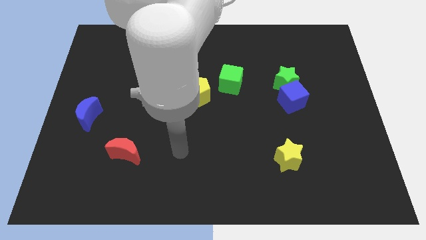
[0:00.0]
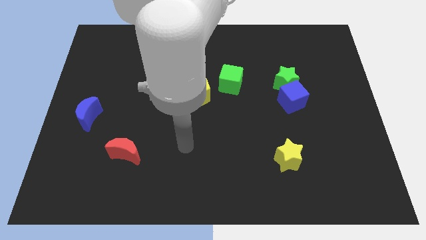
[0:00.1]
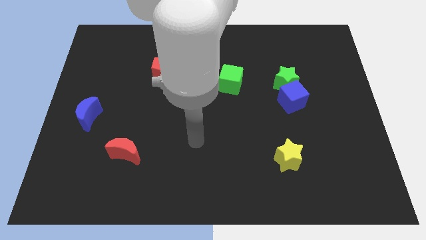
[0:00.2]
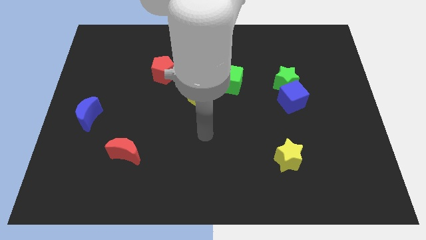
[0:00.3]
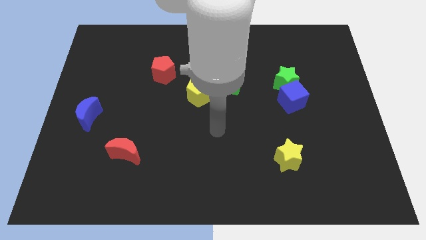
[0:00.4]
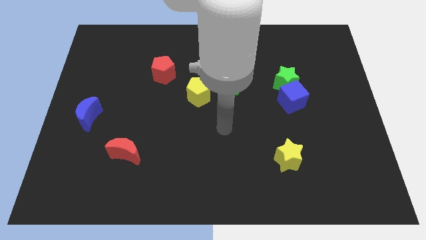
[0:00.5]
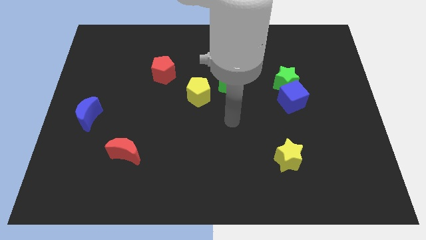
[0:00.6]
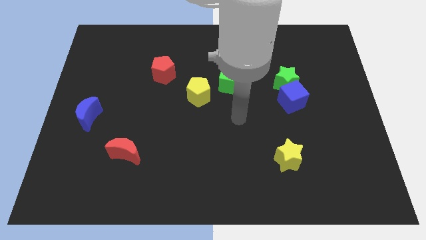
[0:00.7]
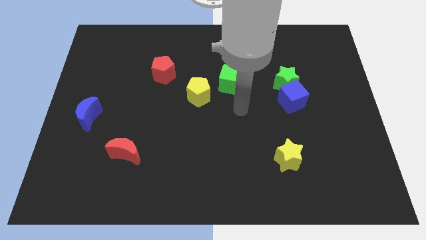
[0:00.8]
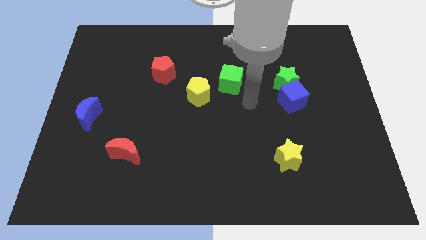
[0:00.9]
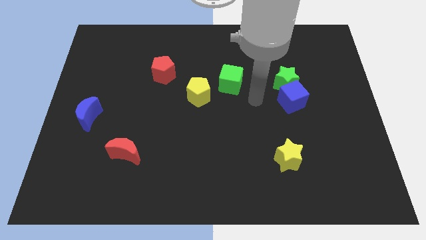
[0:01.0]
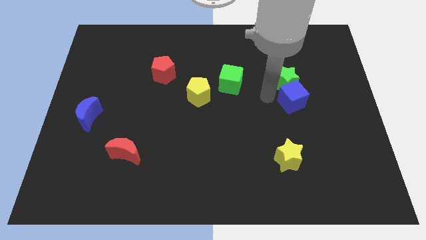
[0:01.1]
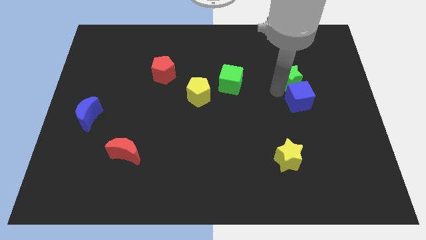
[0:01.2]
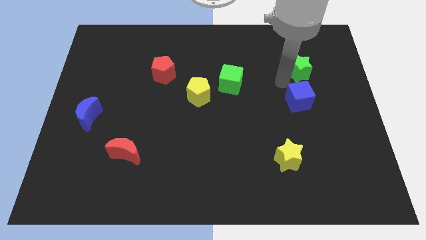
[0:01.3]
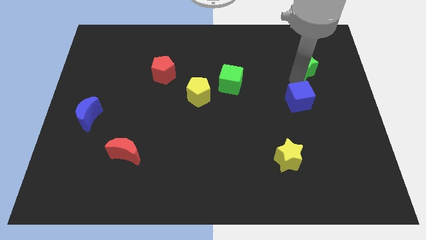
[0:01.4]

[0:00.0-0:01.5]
pull the blue cube apart from the green star

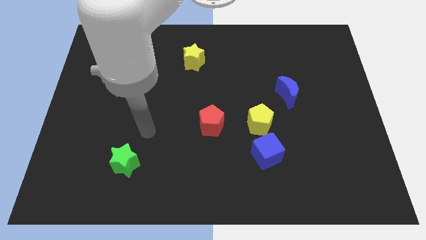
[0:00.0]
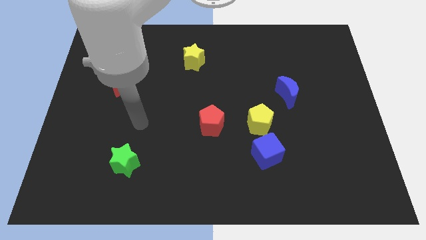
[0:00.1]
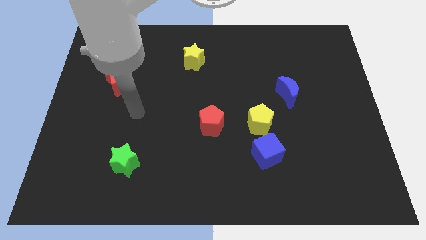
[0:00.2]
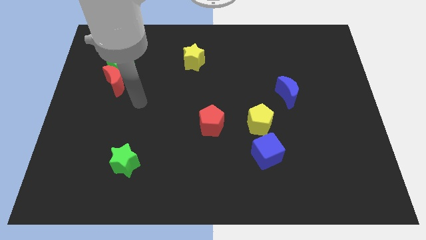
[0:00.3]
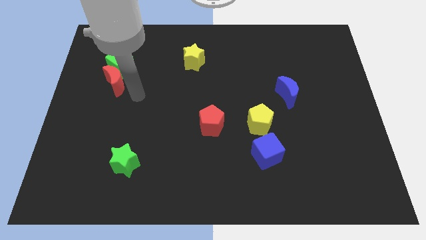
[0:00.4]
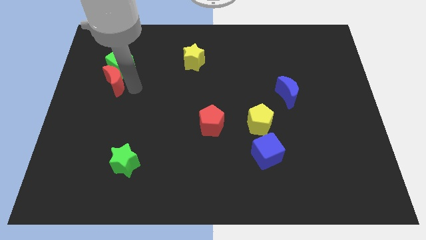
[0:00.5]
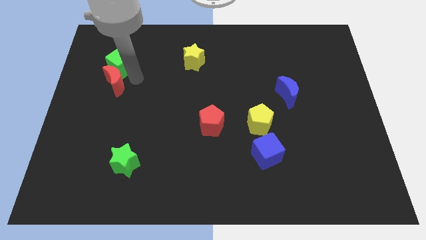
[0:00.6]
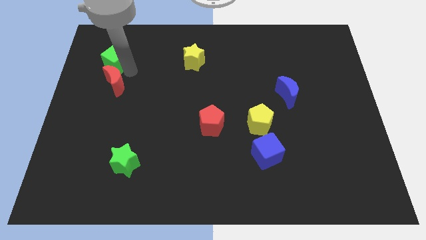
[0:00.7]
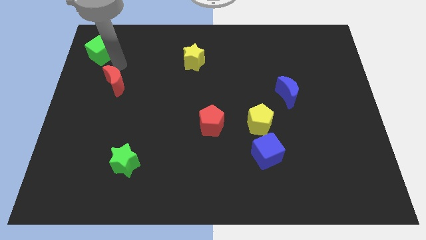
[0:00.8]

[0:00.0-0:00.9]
move the red moon away from the green cube

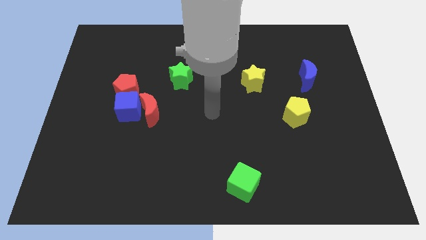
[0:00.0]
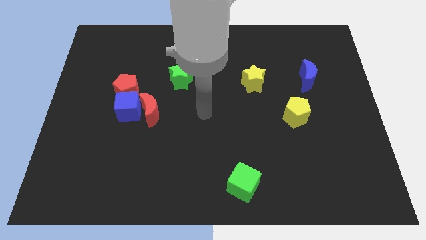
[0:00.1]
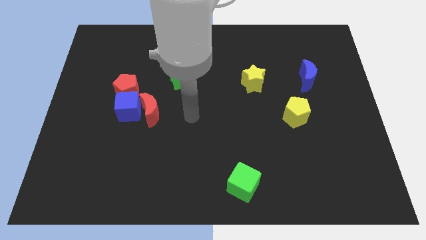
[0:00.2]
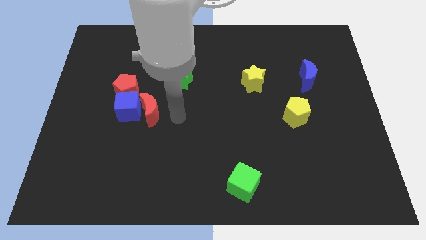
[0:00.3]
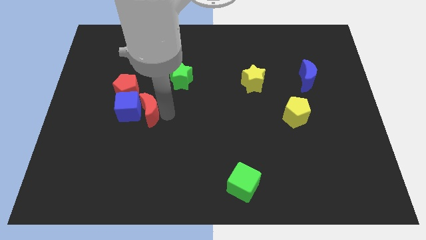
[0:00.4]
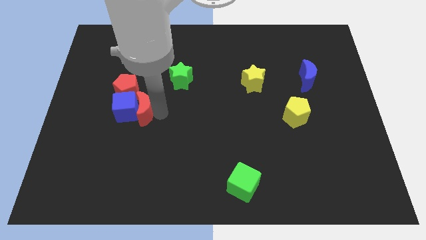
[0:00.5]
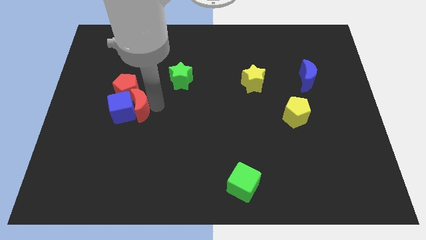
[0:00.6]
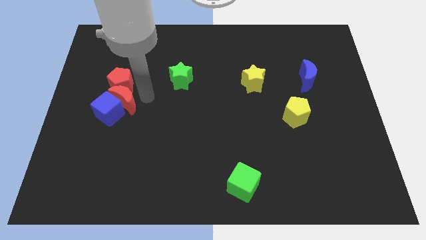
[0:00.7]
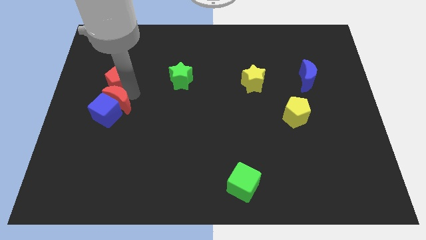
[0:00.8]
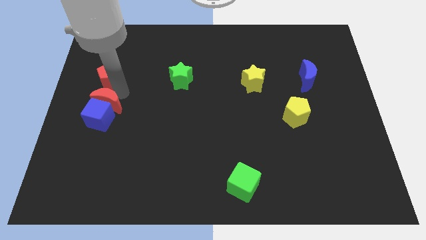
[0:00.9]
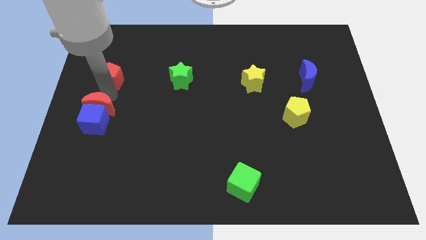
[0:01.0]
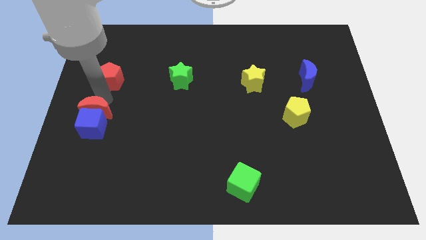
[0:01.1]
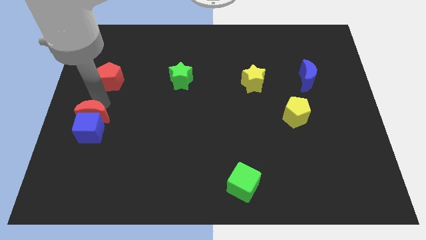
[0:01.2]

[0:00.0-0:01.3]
separate the blue cube from the red moon and red pentagon

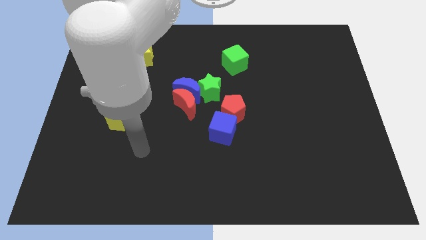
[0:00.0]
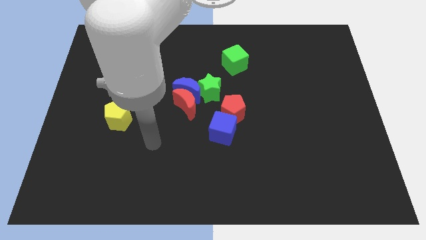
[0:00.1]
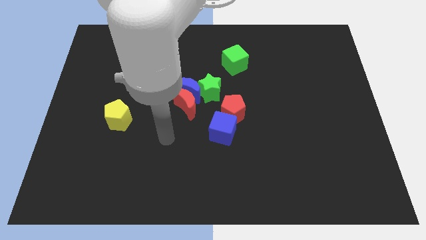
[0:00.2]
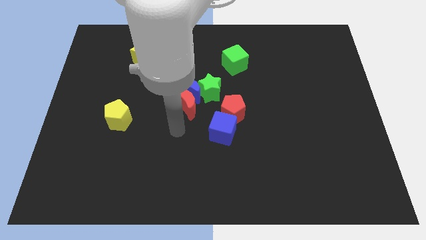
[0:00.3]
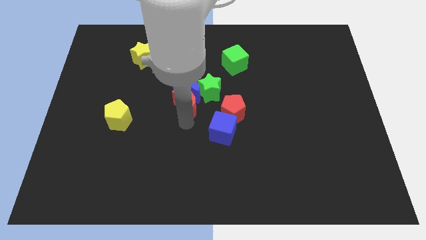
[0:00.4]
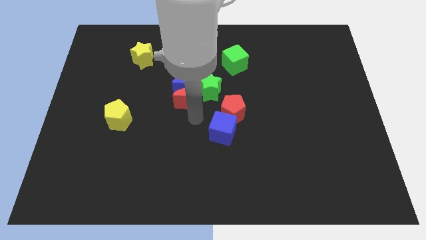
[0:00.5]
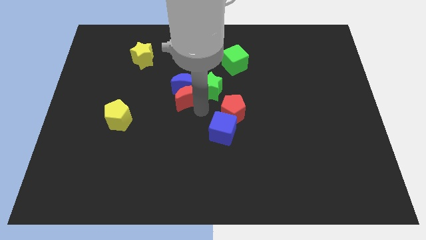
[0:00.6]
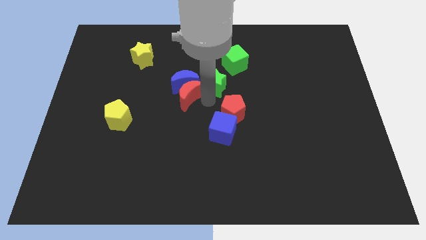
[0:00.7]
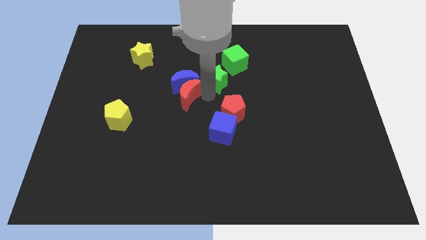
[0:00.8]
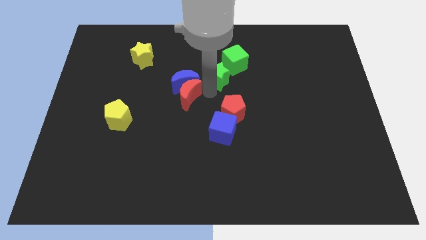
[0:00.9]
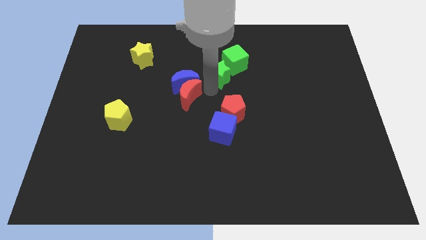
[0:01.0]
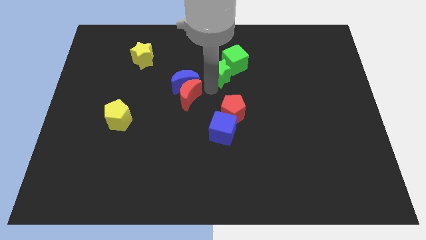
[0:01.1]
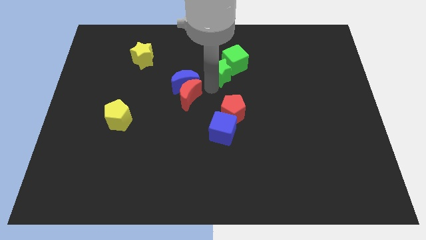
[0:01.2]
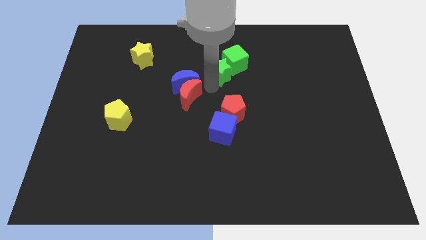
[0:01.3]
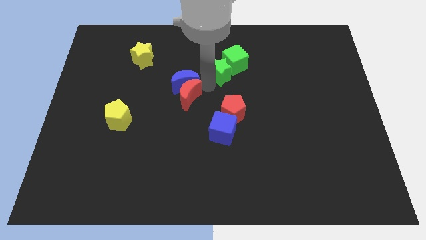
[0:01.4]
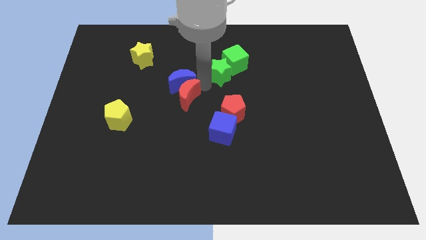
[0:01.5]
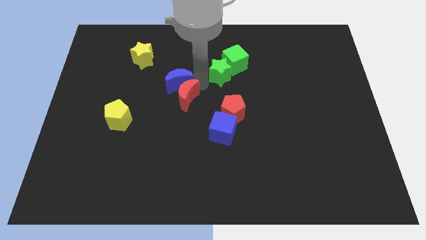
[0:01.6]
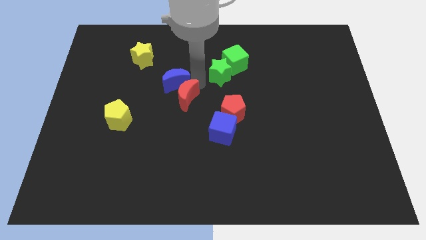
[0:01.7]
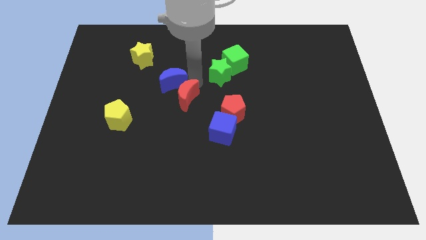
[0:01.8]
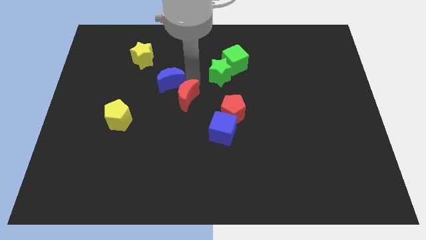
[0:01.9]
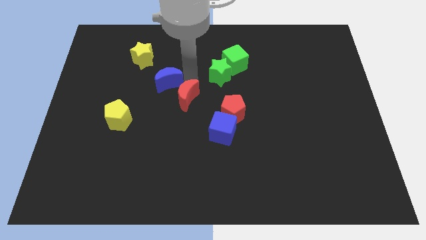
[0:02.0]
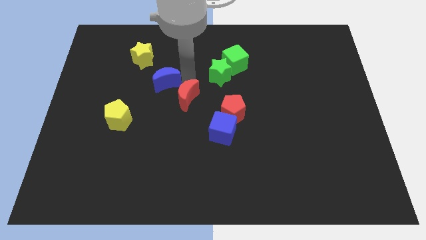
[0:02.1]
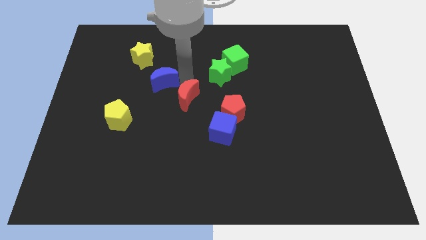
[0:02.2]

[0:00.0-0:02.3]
move the blue moon away from the red moon and green star

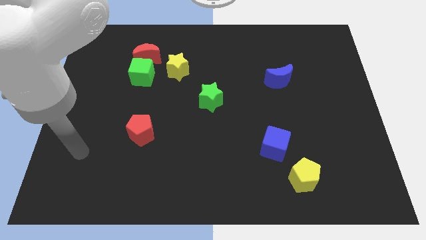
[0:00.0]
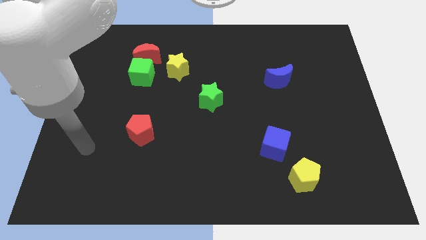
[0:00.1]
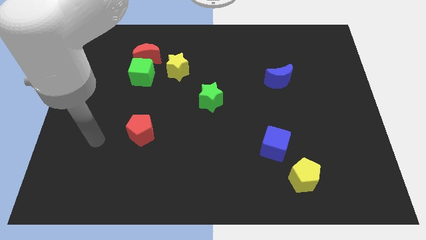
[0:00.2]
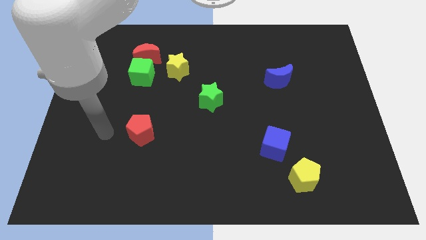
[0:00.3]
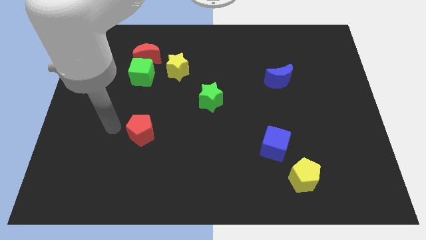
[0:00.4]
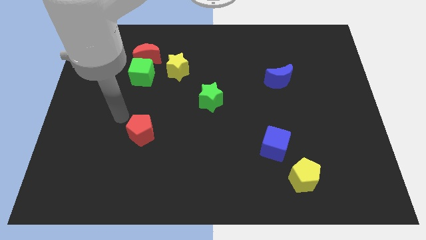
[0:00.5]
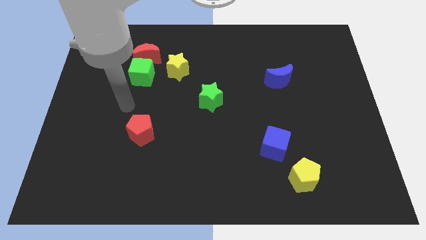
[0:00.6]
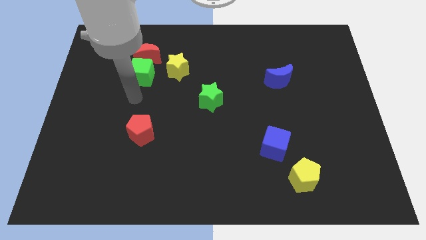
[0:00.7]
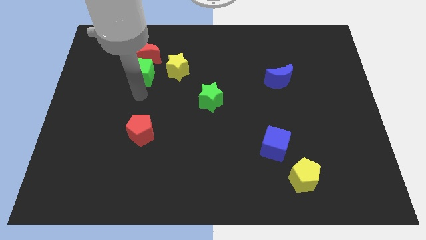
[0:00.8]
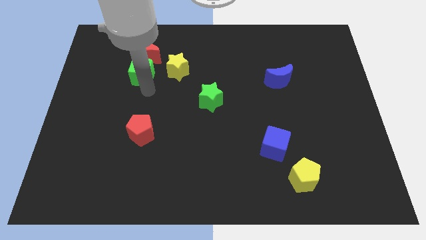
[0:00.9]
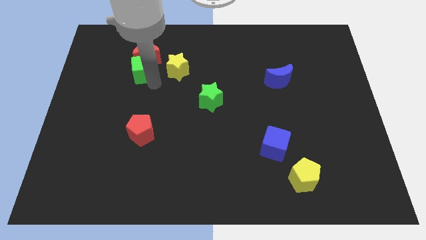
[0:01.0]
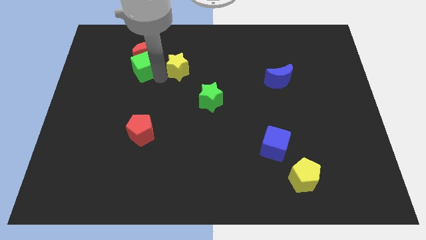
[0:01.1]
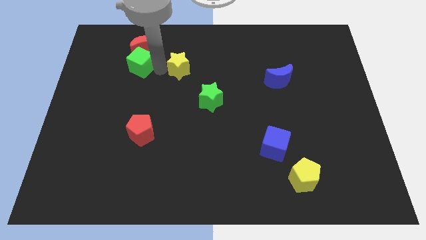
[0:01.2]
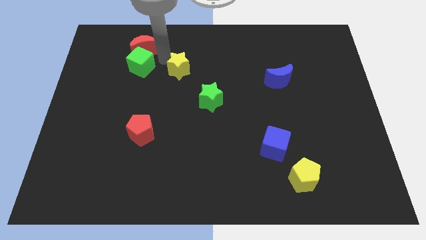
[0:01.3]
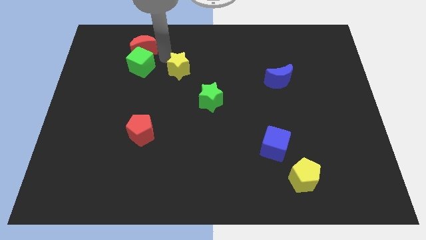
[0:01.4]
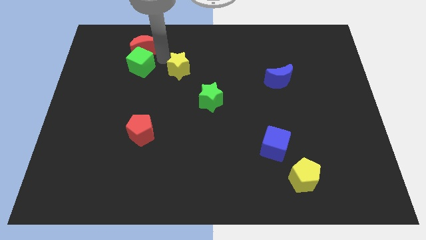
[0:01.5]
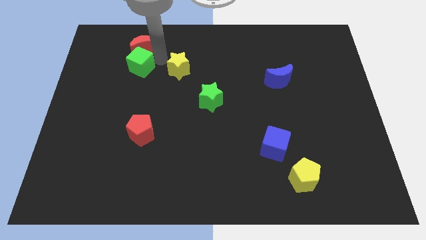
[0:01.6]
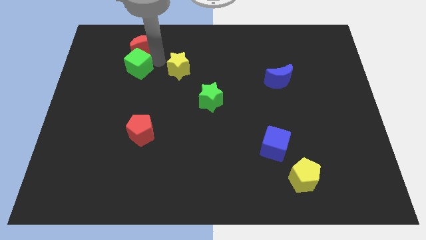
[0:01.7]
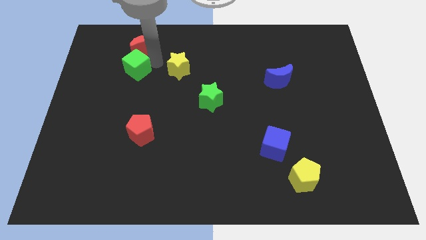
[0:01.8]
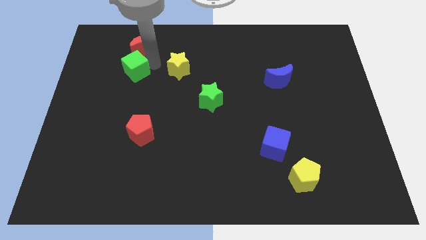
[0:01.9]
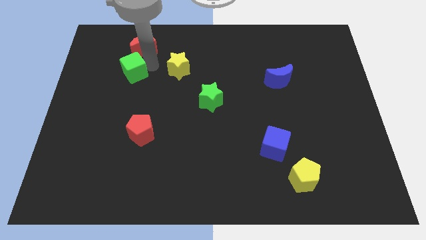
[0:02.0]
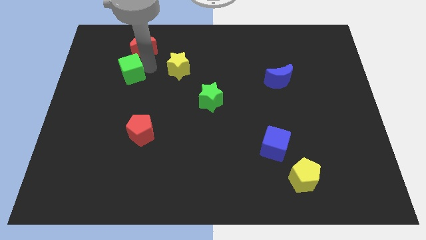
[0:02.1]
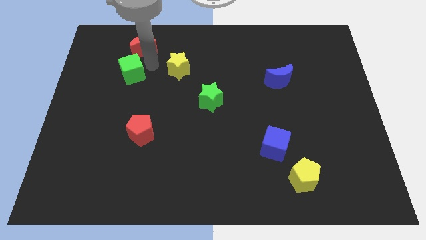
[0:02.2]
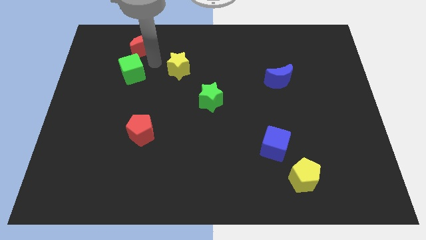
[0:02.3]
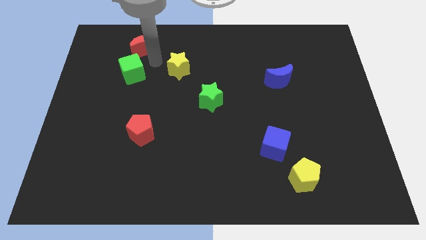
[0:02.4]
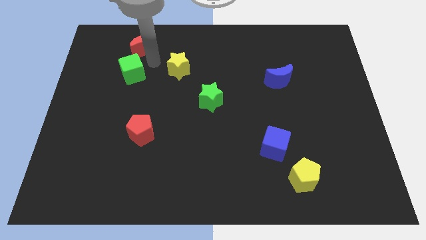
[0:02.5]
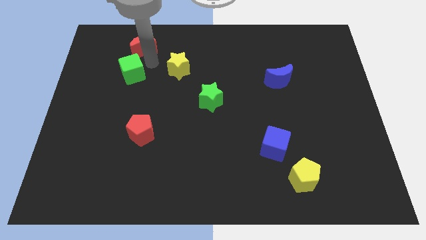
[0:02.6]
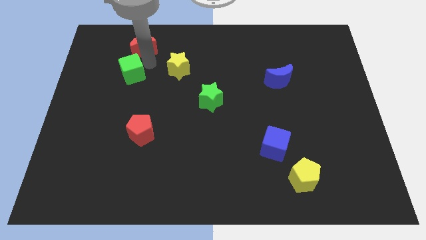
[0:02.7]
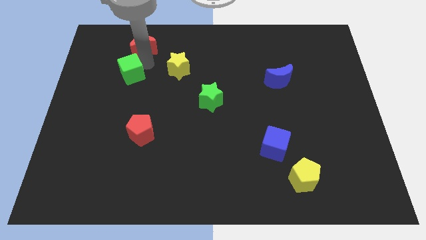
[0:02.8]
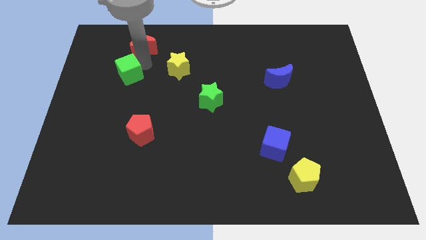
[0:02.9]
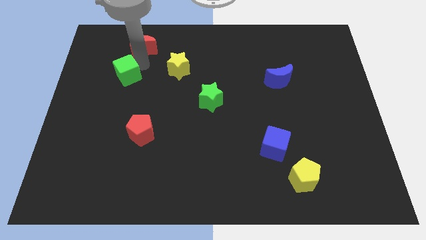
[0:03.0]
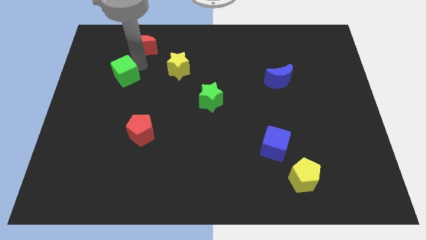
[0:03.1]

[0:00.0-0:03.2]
move the green cube away from the red moon and yellow star

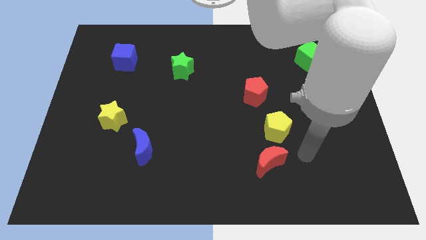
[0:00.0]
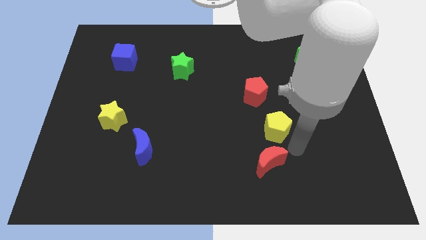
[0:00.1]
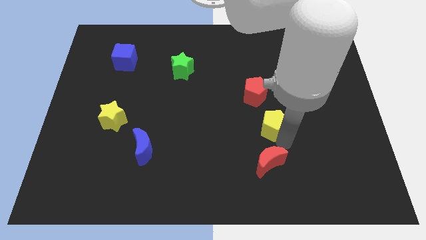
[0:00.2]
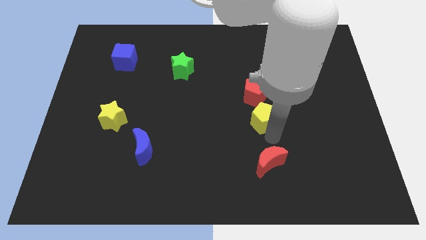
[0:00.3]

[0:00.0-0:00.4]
pull the red moon apart from the yellow pentagon
